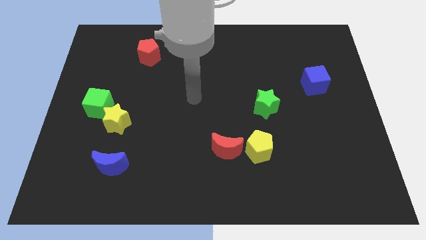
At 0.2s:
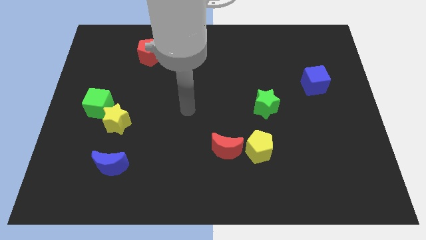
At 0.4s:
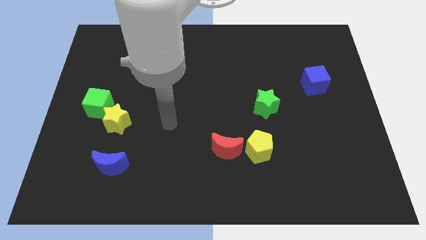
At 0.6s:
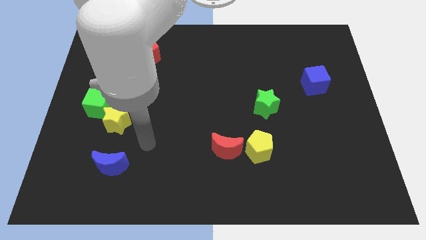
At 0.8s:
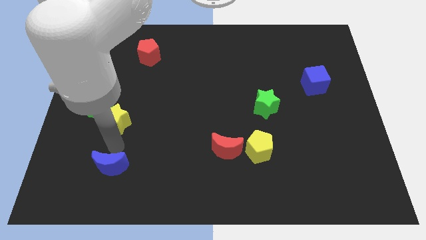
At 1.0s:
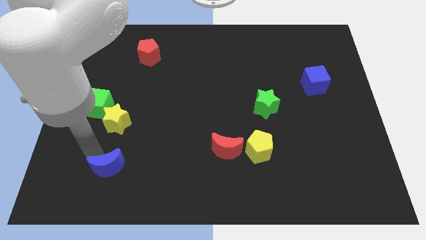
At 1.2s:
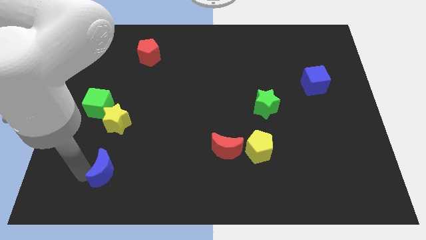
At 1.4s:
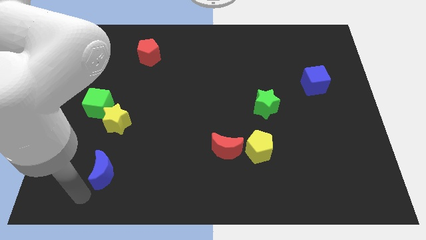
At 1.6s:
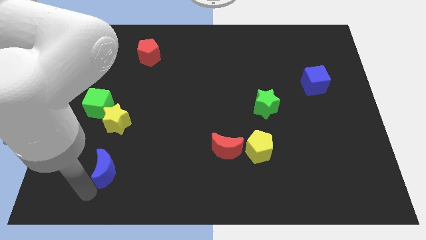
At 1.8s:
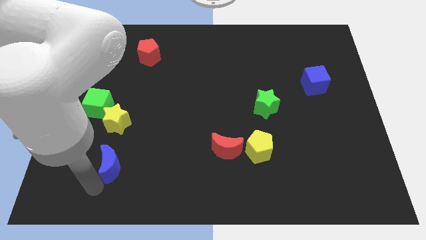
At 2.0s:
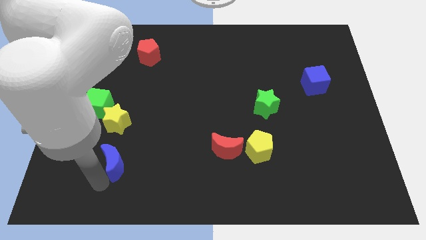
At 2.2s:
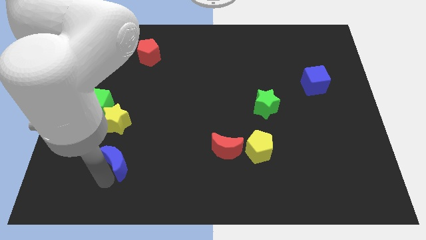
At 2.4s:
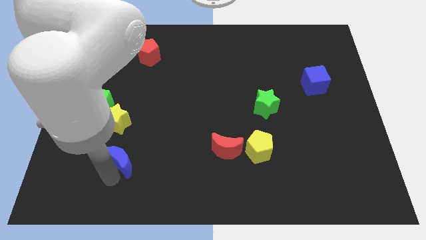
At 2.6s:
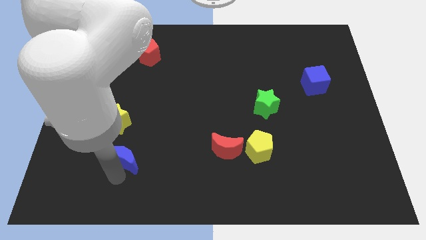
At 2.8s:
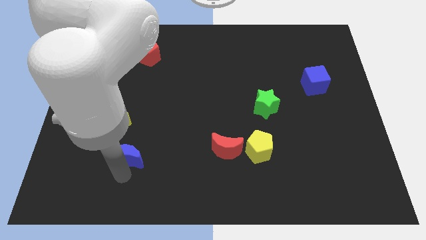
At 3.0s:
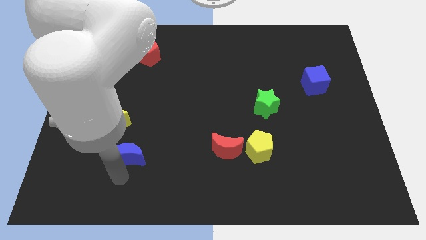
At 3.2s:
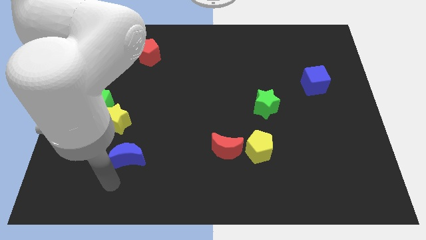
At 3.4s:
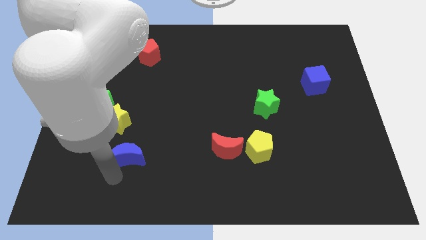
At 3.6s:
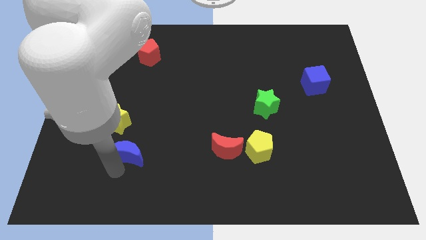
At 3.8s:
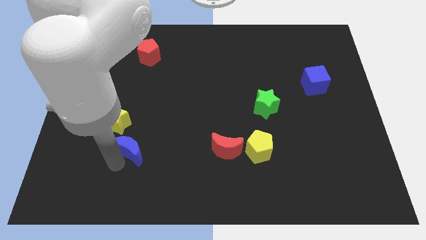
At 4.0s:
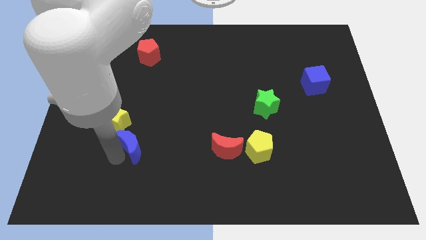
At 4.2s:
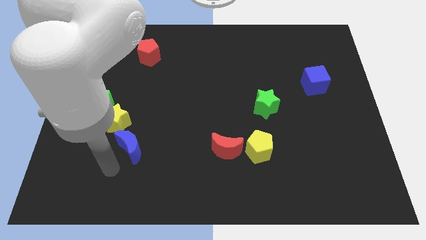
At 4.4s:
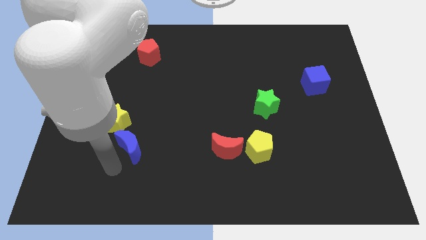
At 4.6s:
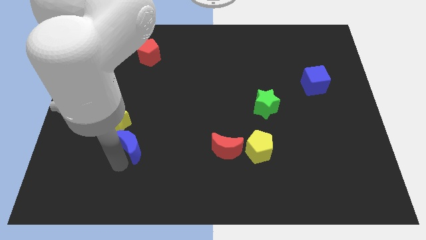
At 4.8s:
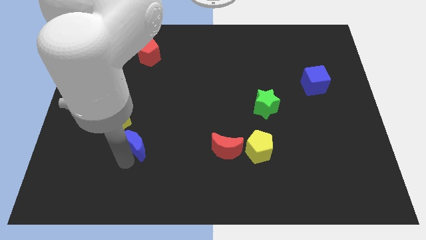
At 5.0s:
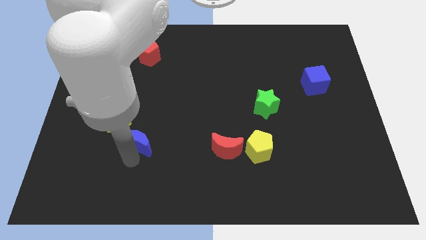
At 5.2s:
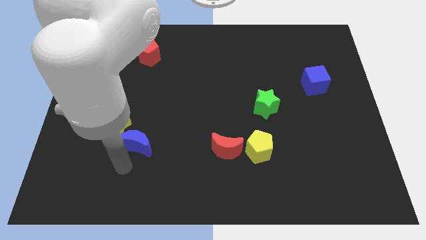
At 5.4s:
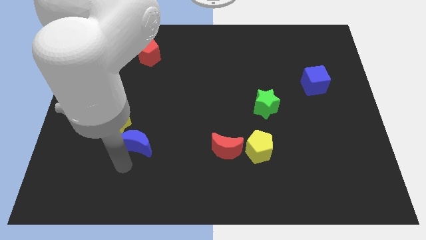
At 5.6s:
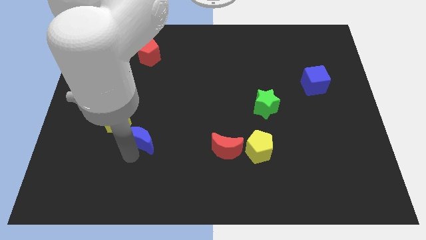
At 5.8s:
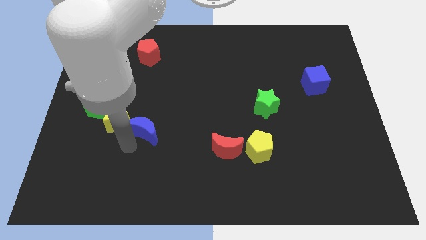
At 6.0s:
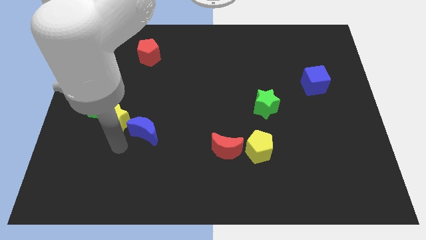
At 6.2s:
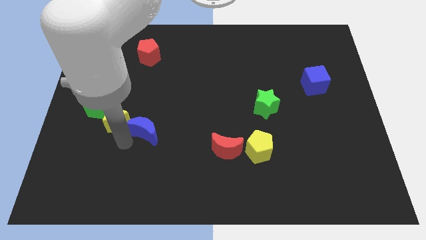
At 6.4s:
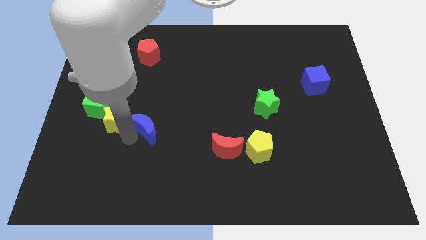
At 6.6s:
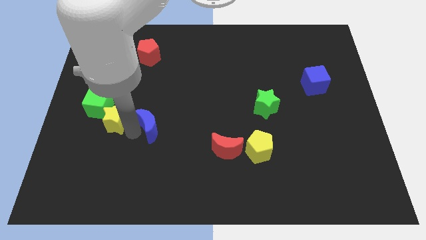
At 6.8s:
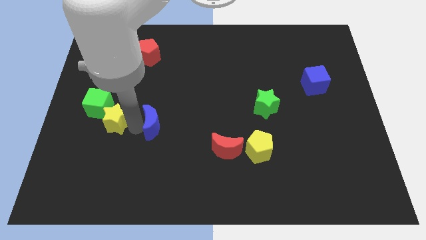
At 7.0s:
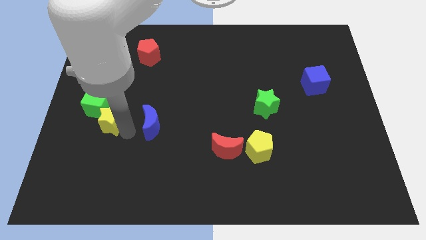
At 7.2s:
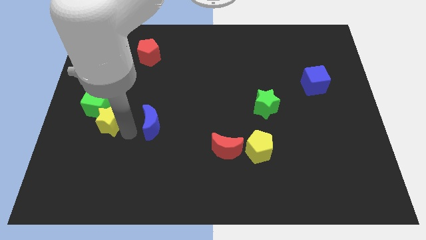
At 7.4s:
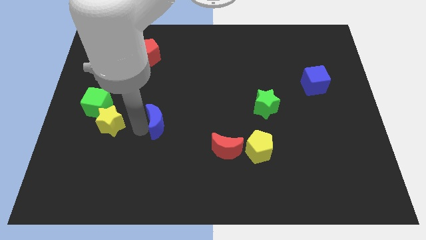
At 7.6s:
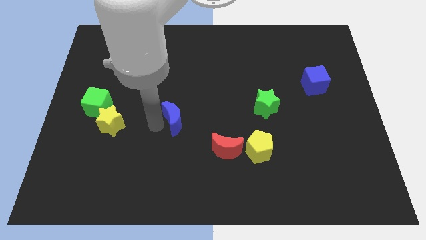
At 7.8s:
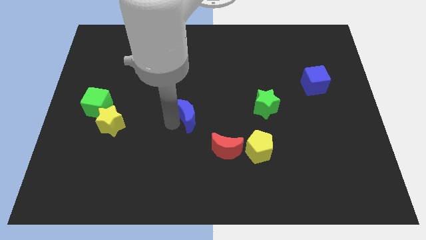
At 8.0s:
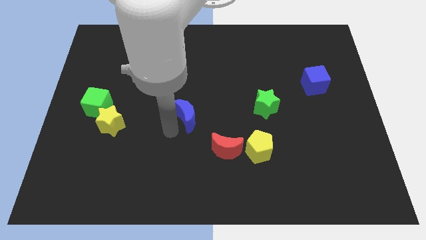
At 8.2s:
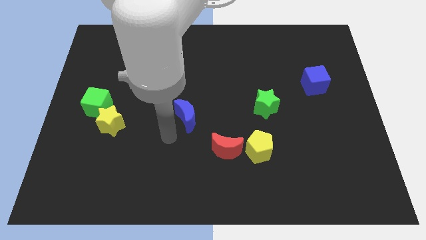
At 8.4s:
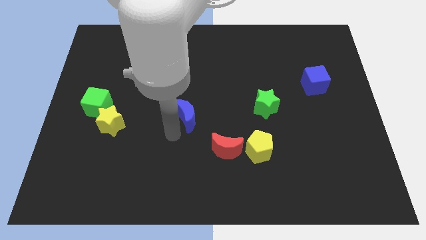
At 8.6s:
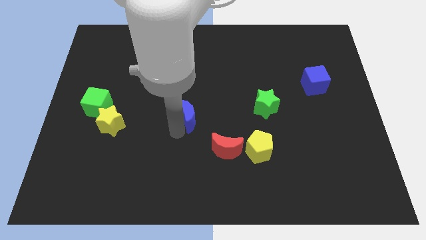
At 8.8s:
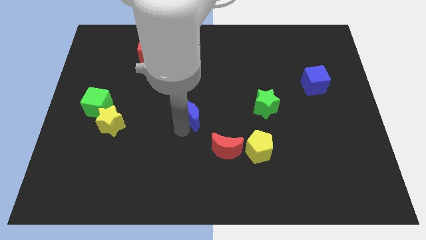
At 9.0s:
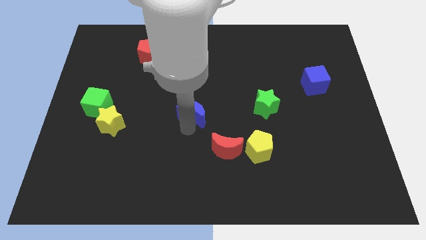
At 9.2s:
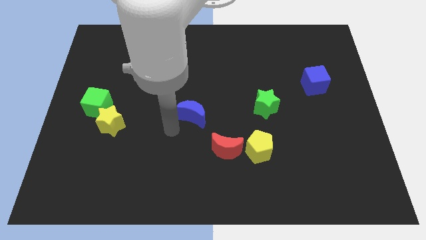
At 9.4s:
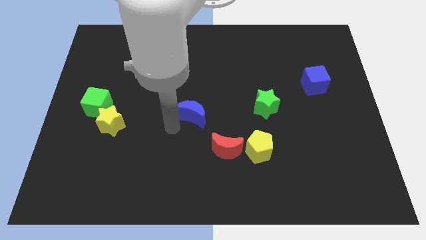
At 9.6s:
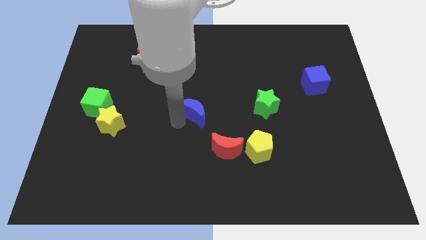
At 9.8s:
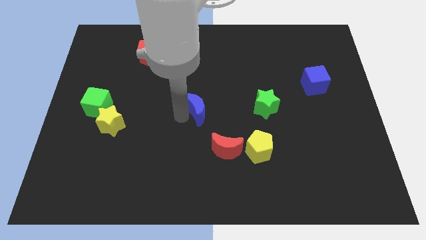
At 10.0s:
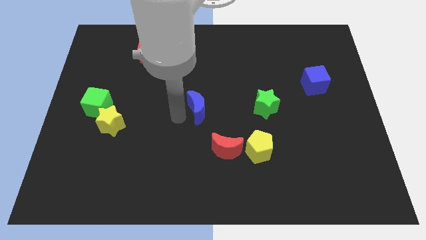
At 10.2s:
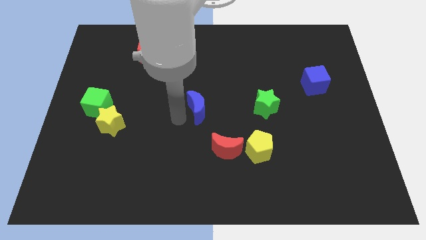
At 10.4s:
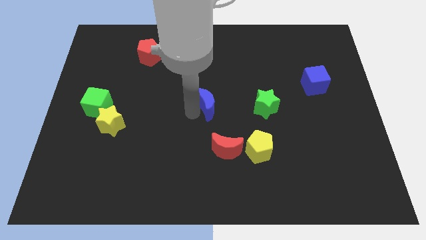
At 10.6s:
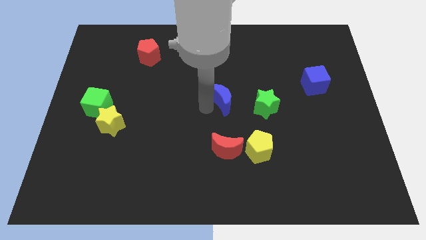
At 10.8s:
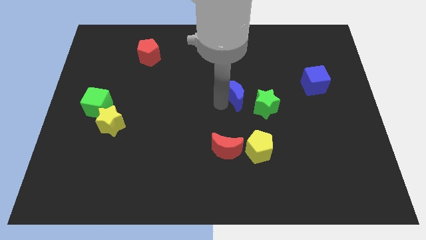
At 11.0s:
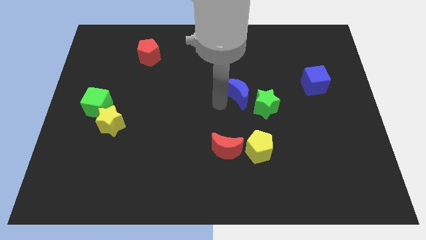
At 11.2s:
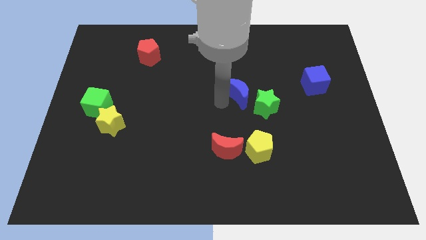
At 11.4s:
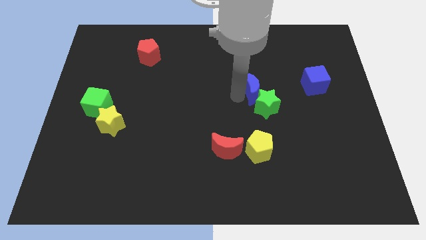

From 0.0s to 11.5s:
put the blue moon just left of the blue cube

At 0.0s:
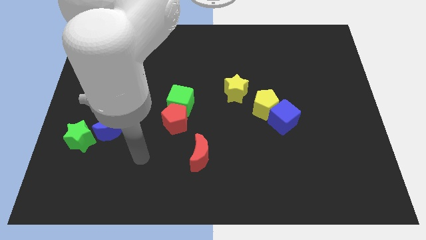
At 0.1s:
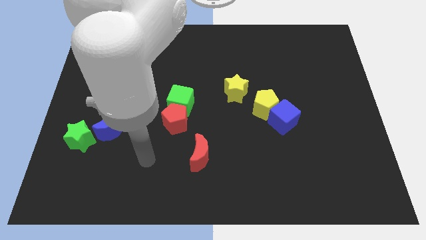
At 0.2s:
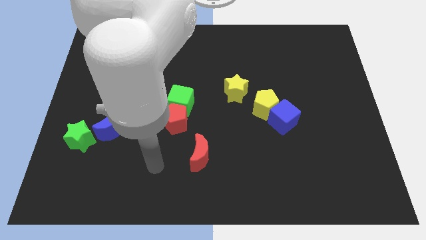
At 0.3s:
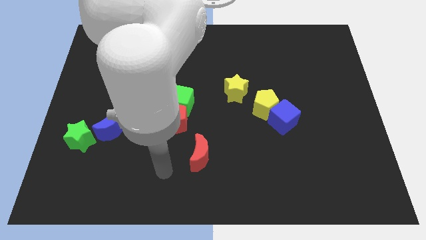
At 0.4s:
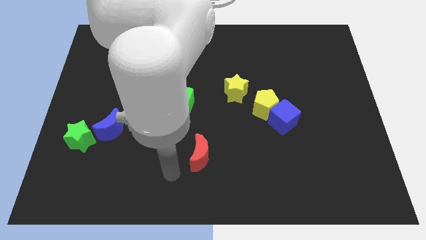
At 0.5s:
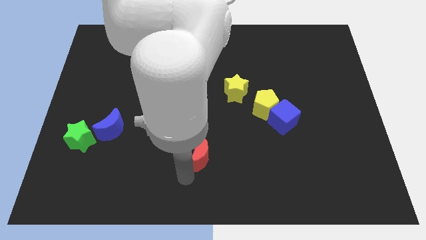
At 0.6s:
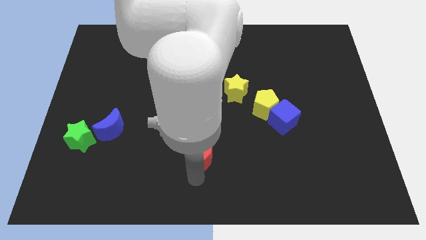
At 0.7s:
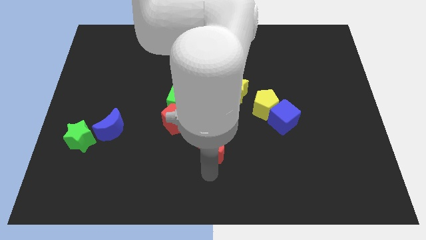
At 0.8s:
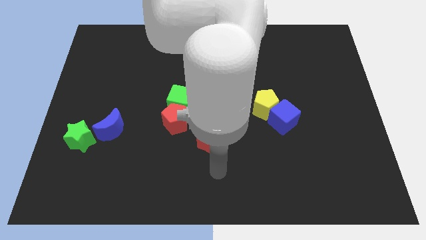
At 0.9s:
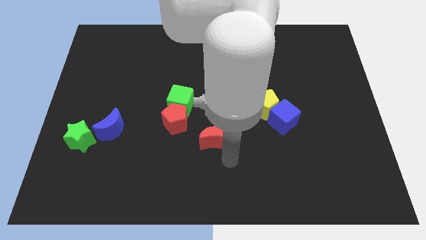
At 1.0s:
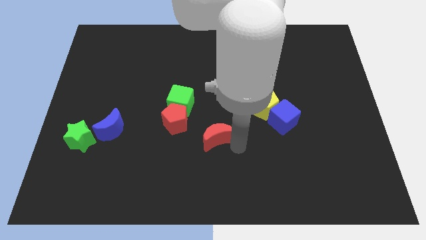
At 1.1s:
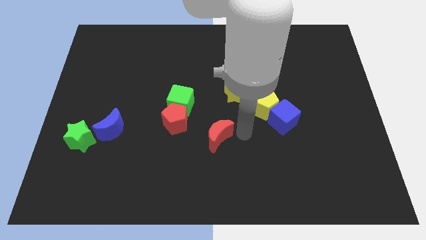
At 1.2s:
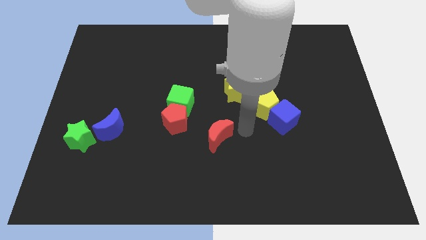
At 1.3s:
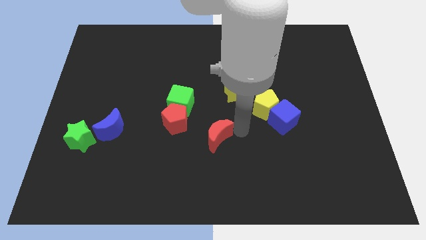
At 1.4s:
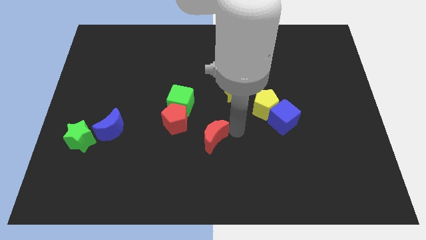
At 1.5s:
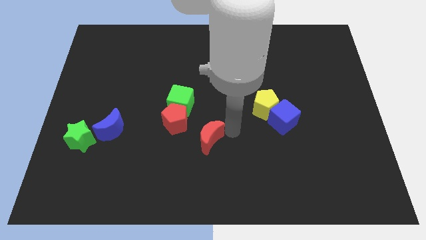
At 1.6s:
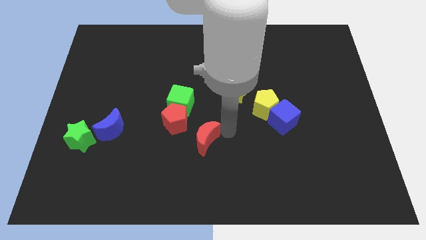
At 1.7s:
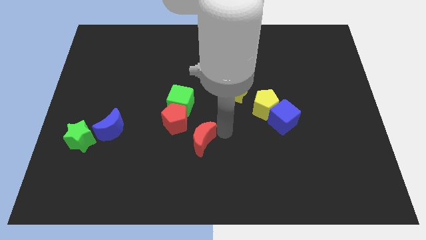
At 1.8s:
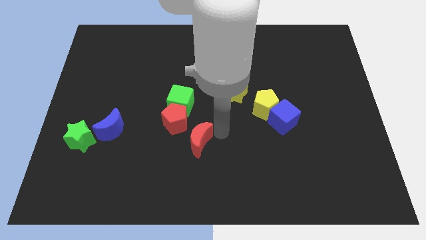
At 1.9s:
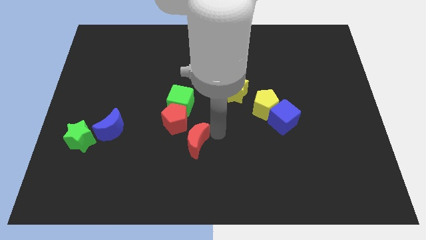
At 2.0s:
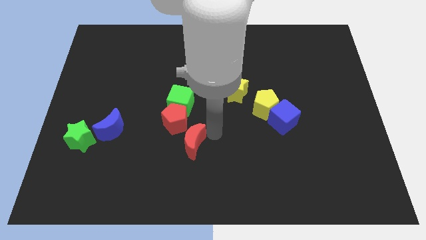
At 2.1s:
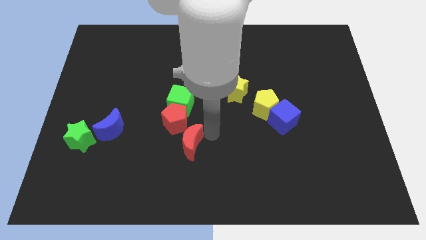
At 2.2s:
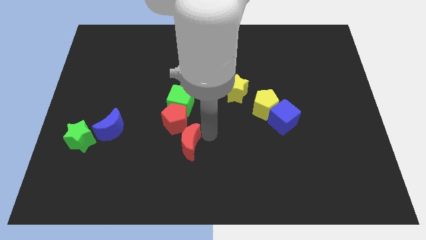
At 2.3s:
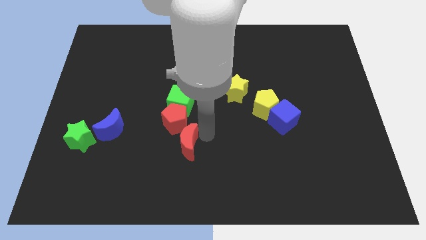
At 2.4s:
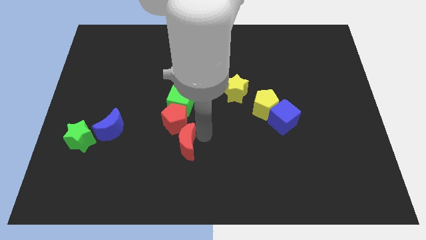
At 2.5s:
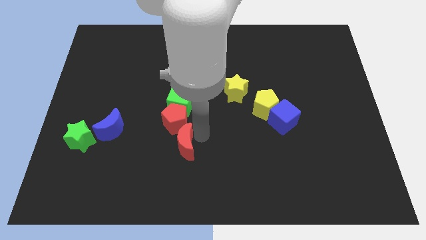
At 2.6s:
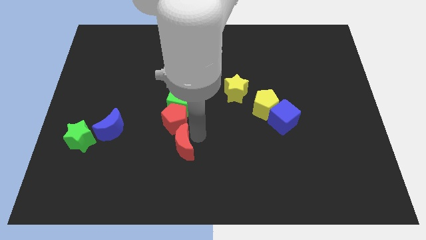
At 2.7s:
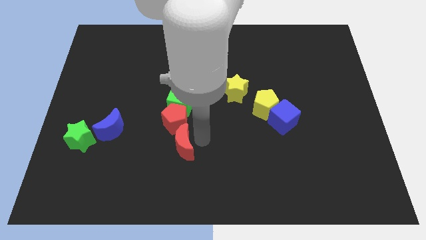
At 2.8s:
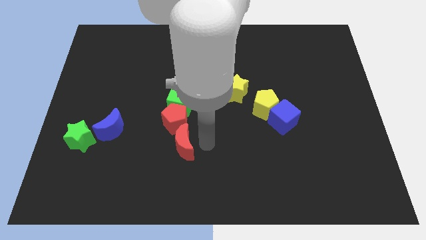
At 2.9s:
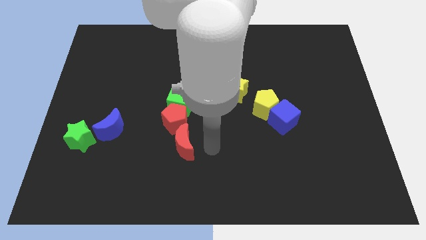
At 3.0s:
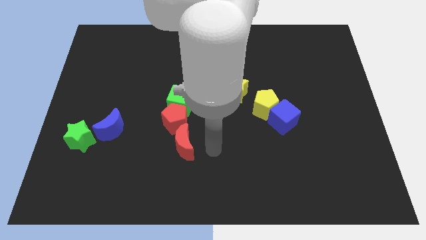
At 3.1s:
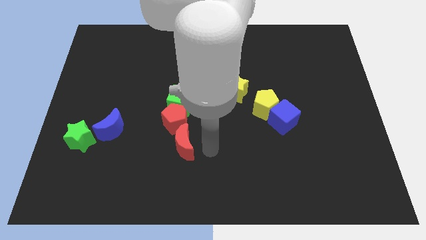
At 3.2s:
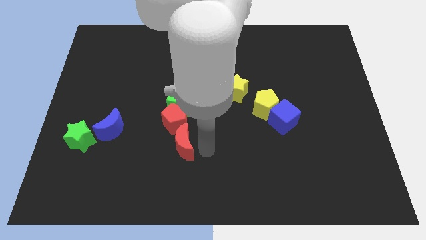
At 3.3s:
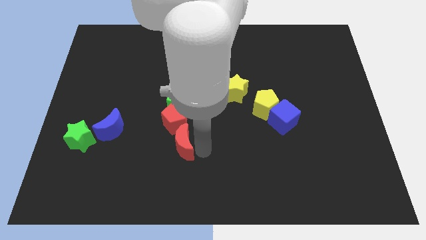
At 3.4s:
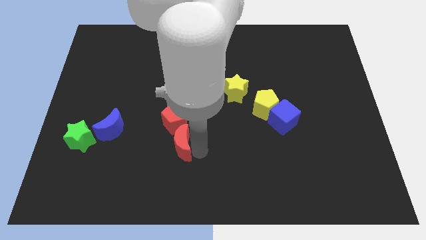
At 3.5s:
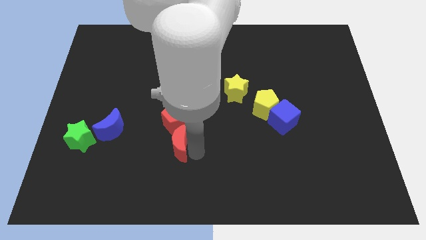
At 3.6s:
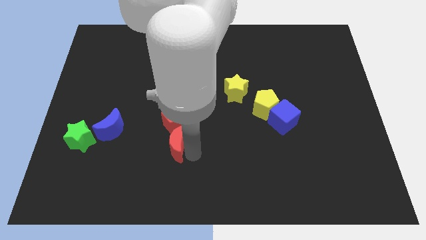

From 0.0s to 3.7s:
push the red moon diagonally down and to the left of the red pentagon
